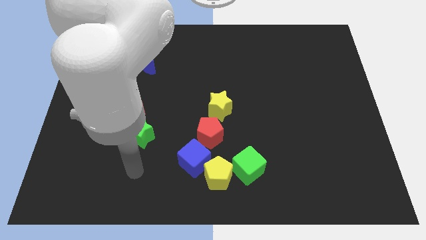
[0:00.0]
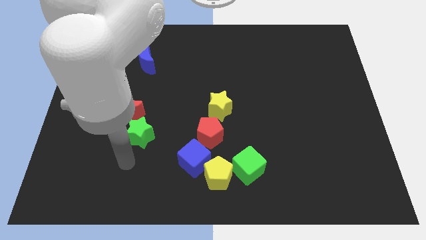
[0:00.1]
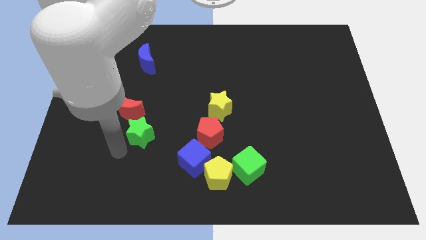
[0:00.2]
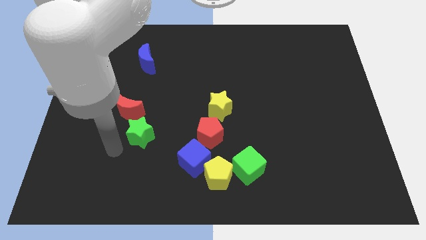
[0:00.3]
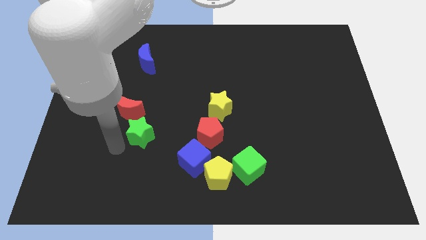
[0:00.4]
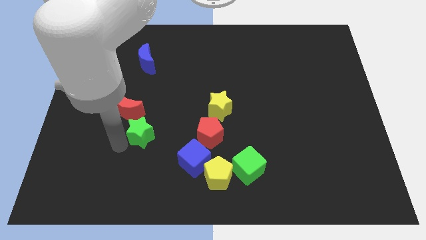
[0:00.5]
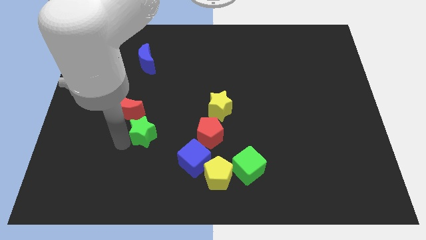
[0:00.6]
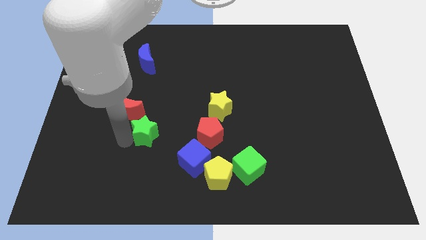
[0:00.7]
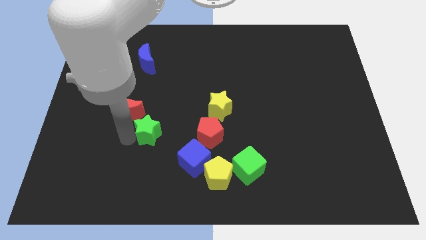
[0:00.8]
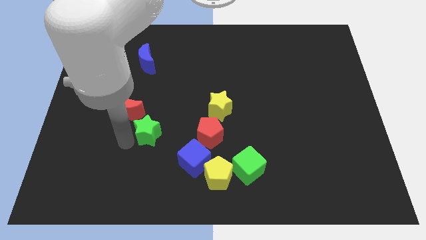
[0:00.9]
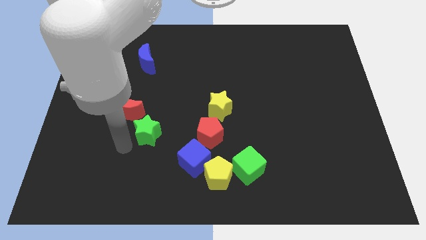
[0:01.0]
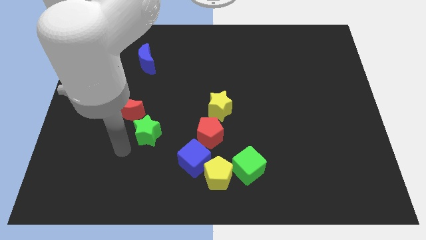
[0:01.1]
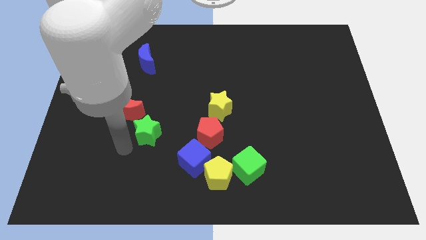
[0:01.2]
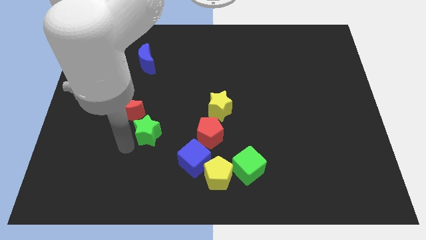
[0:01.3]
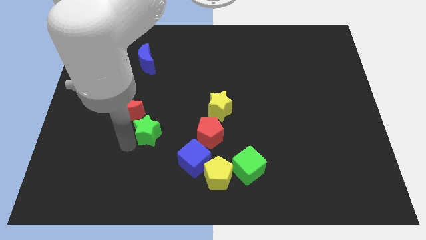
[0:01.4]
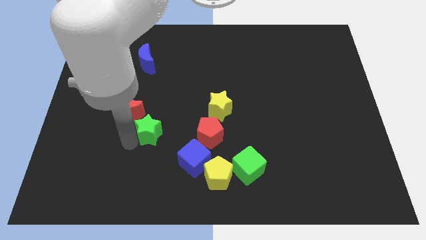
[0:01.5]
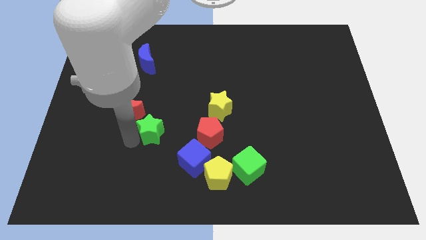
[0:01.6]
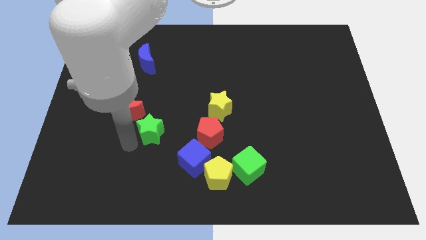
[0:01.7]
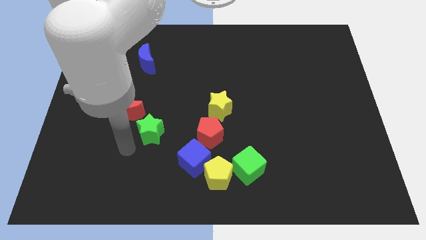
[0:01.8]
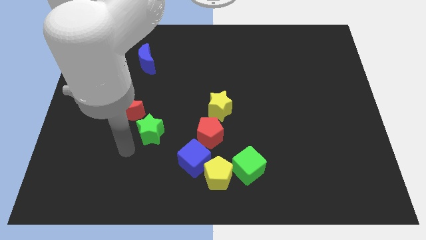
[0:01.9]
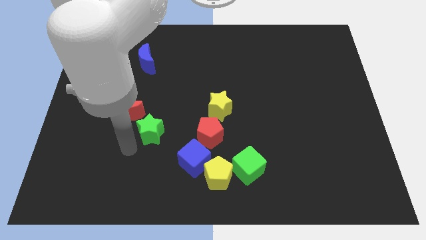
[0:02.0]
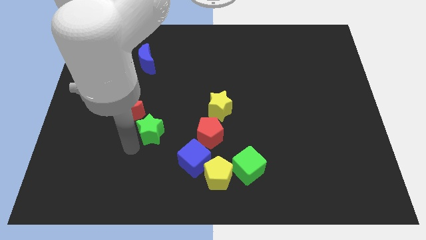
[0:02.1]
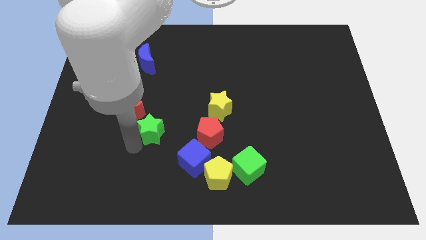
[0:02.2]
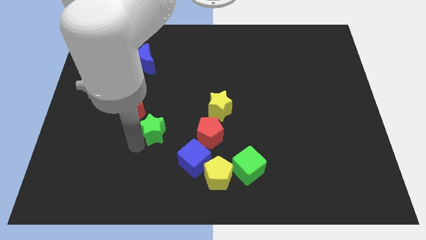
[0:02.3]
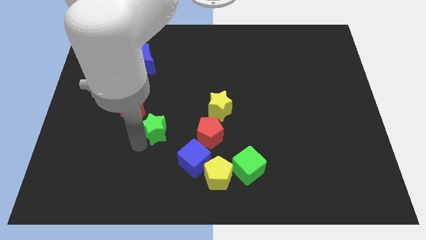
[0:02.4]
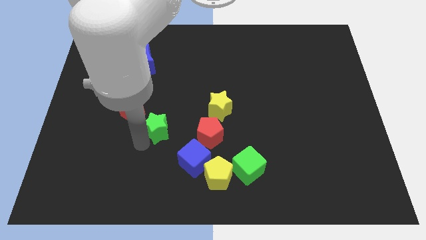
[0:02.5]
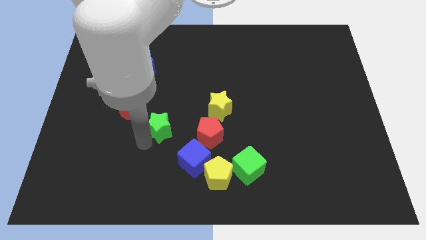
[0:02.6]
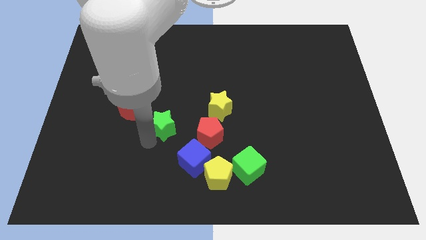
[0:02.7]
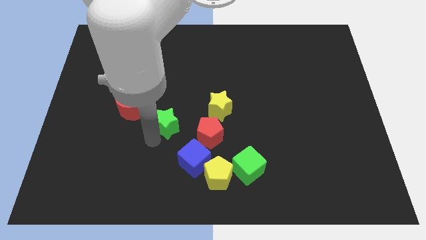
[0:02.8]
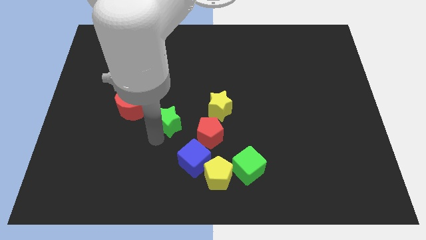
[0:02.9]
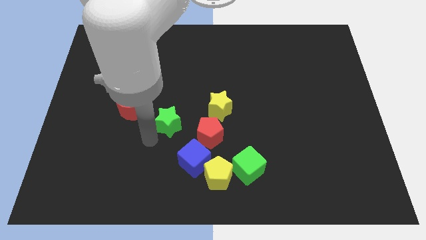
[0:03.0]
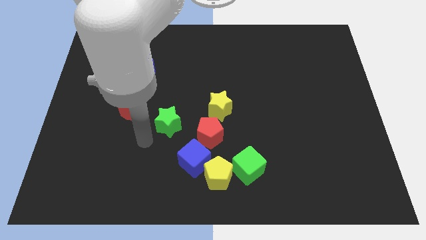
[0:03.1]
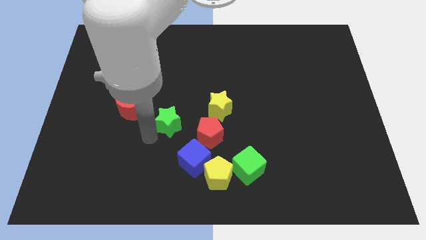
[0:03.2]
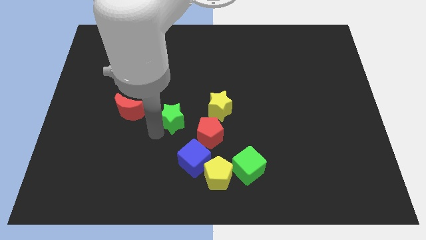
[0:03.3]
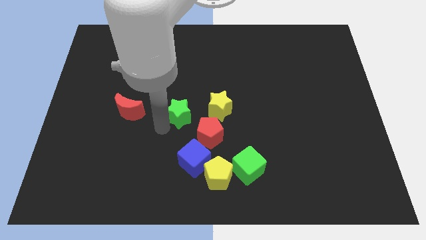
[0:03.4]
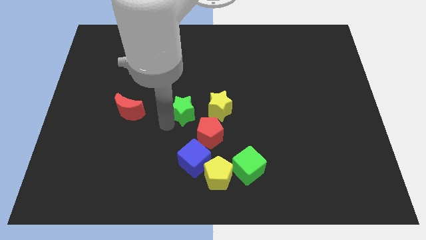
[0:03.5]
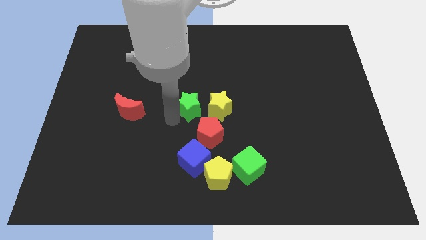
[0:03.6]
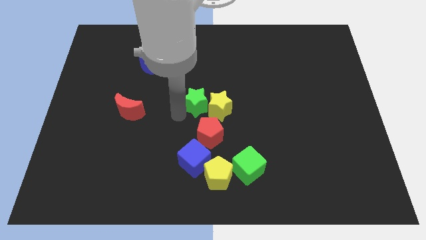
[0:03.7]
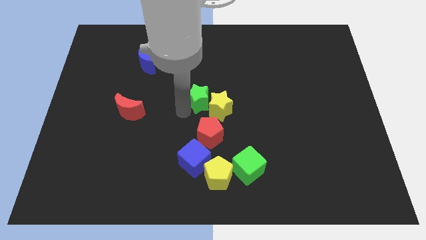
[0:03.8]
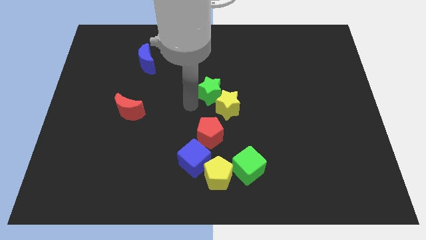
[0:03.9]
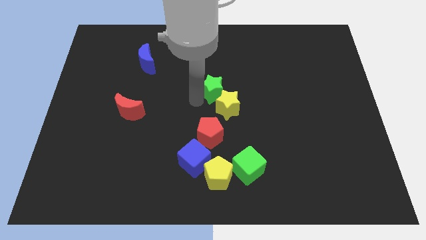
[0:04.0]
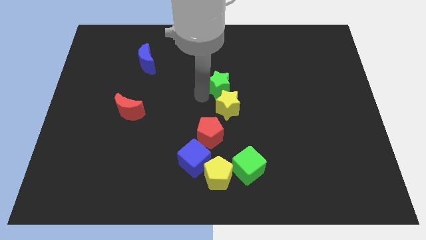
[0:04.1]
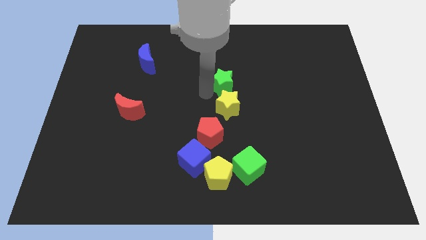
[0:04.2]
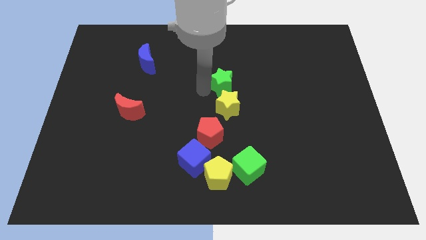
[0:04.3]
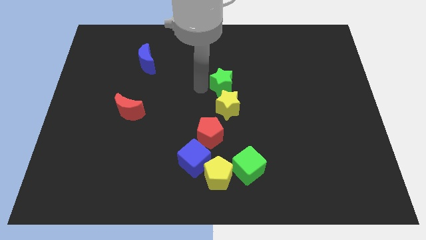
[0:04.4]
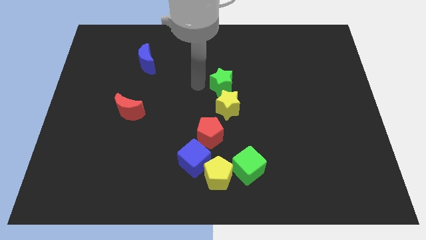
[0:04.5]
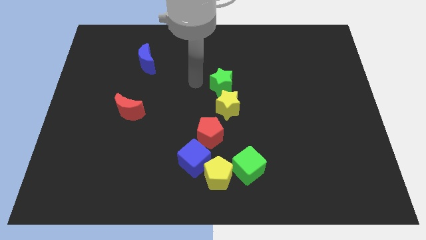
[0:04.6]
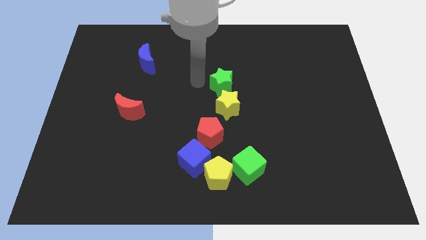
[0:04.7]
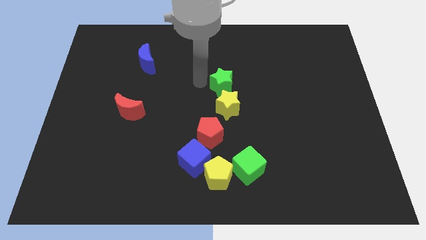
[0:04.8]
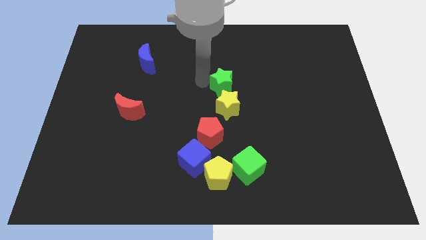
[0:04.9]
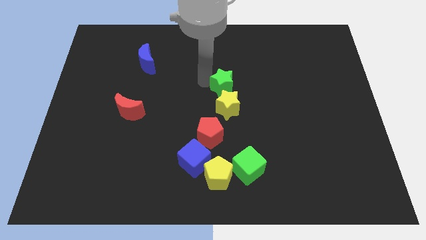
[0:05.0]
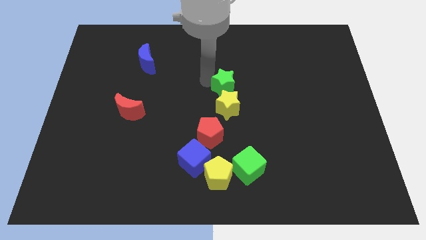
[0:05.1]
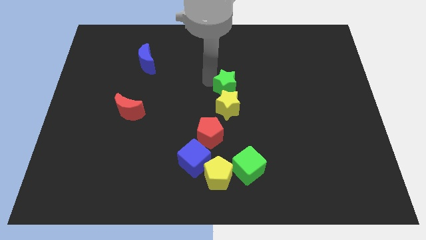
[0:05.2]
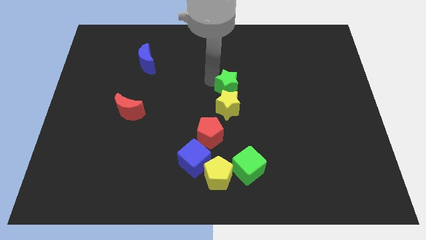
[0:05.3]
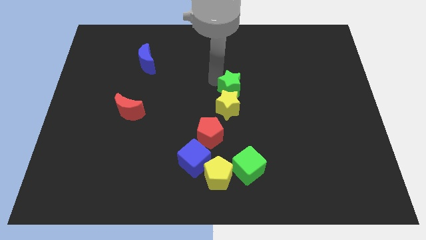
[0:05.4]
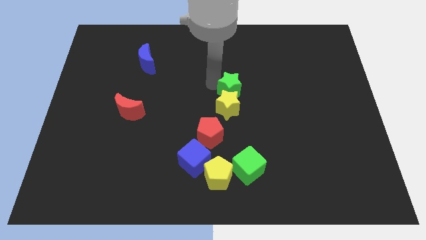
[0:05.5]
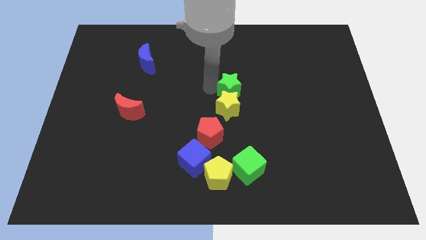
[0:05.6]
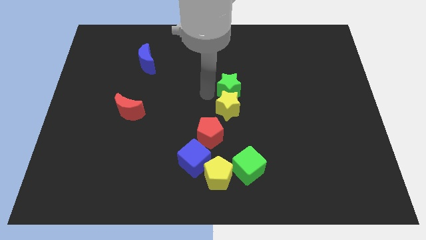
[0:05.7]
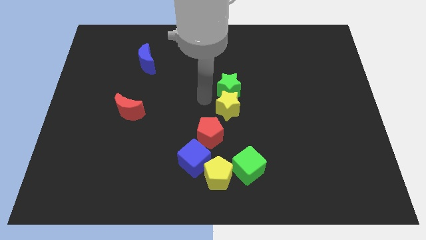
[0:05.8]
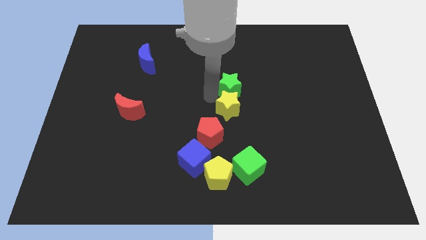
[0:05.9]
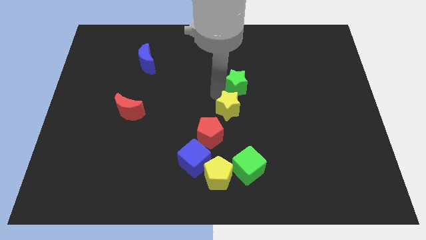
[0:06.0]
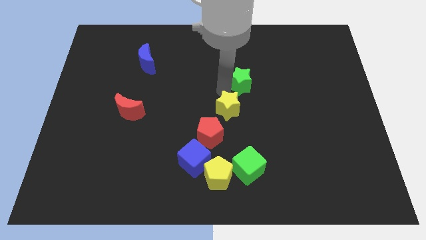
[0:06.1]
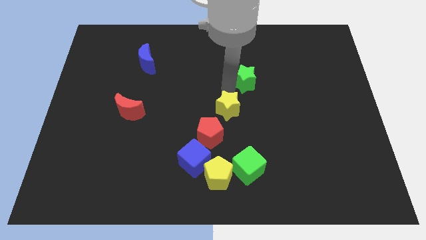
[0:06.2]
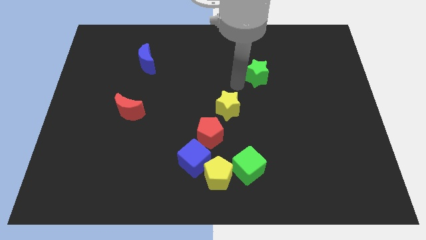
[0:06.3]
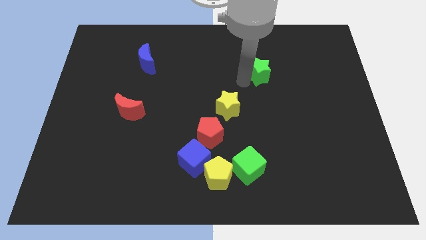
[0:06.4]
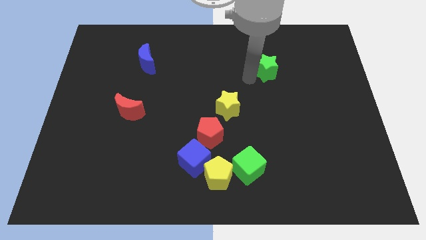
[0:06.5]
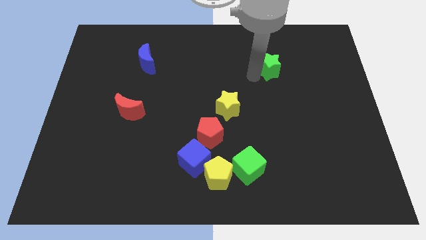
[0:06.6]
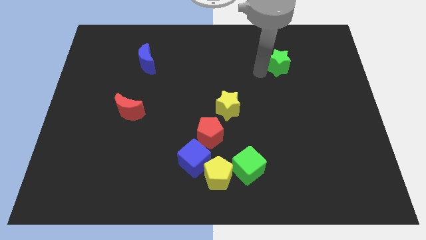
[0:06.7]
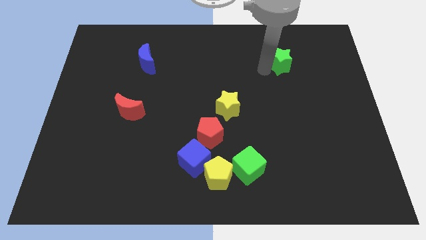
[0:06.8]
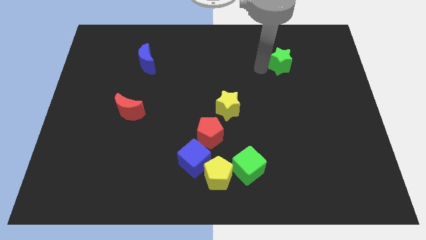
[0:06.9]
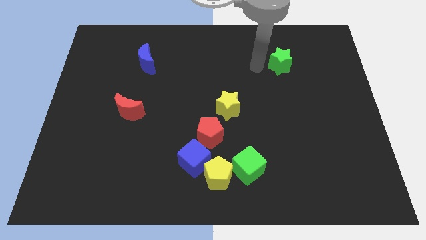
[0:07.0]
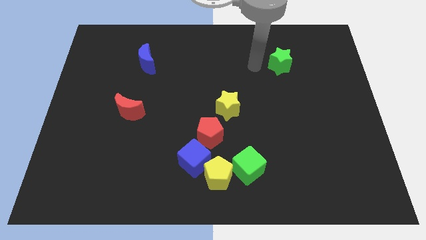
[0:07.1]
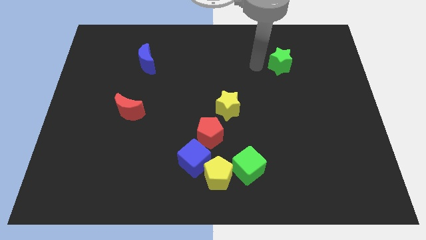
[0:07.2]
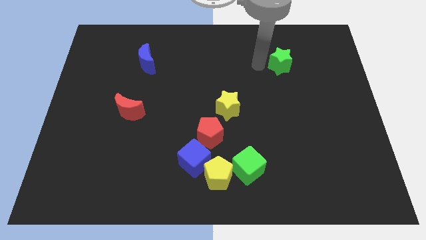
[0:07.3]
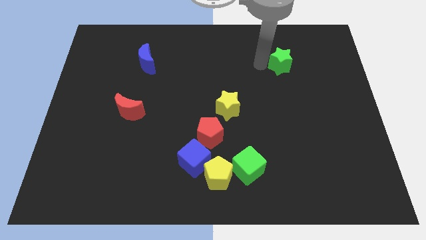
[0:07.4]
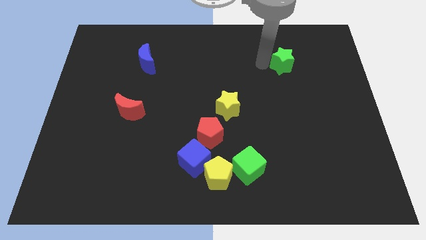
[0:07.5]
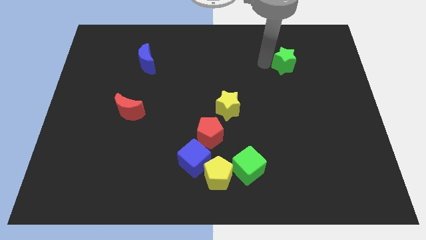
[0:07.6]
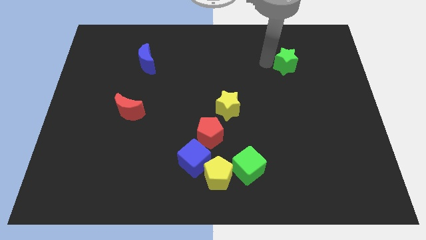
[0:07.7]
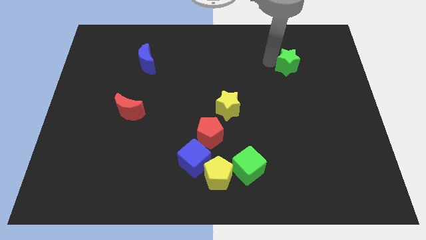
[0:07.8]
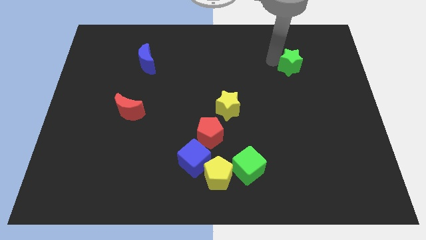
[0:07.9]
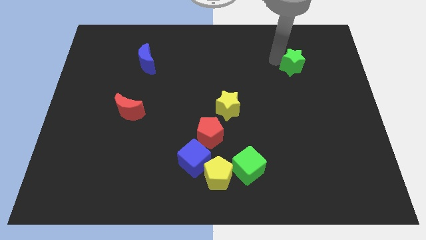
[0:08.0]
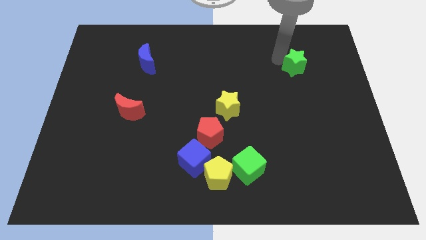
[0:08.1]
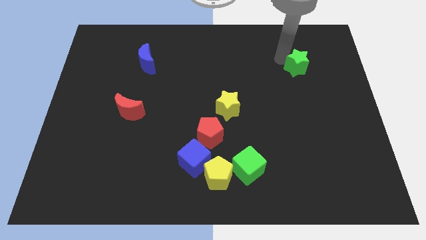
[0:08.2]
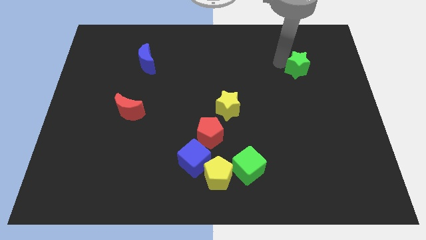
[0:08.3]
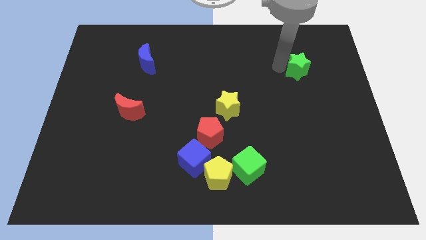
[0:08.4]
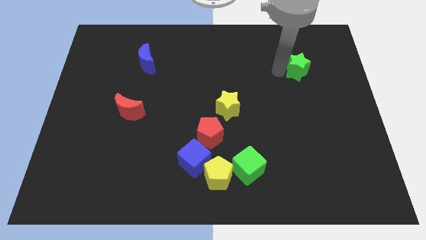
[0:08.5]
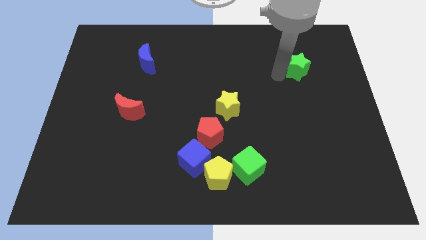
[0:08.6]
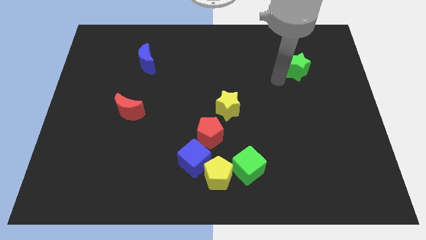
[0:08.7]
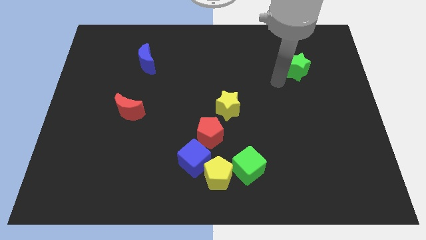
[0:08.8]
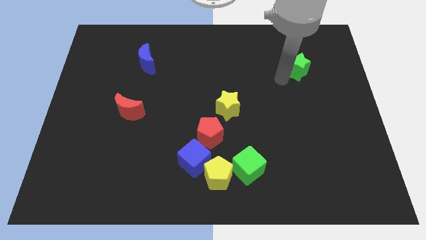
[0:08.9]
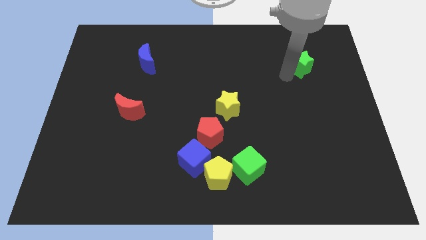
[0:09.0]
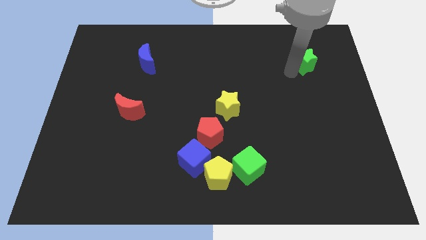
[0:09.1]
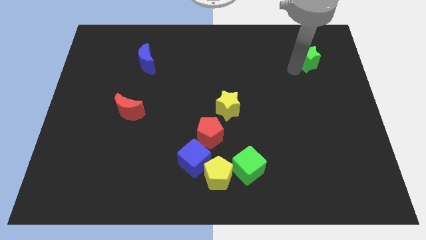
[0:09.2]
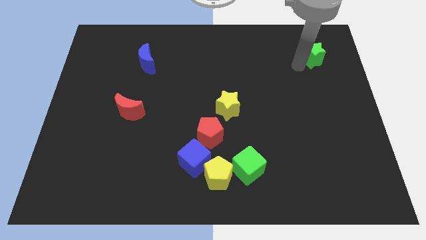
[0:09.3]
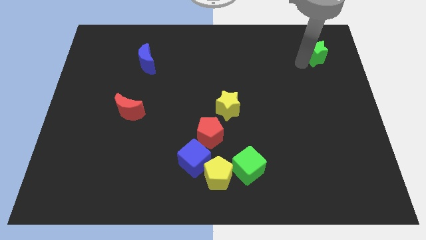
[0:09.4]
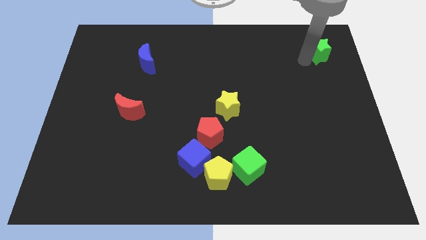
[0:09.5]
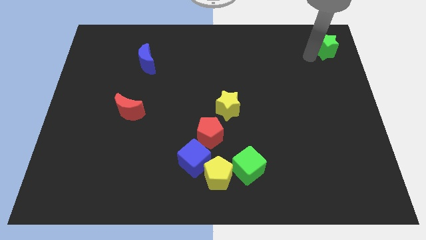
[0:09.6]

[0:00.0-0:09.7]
push the green star to the top right
